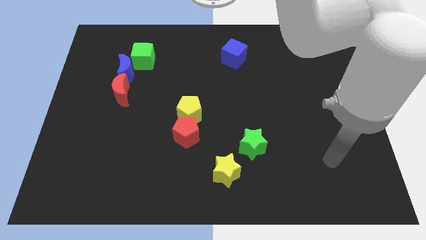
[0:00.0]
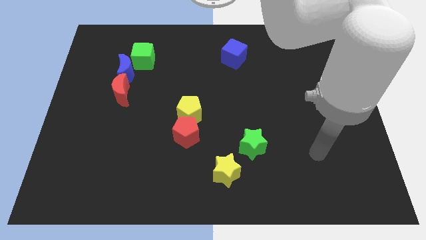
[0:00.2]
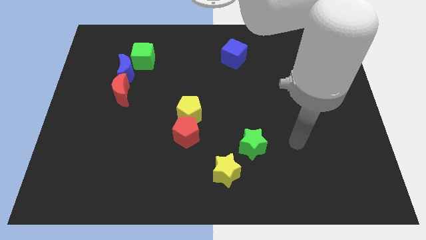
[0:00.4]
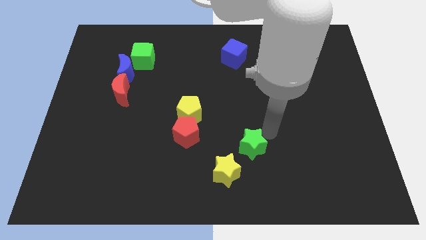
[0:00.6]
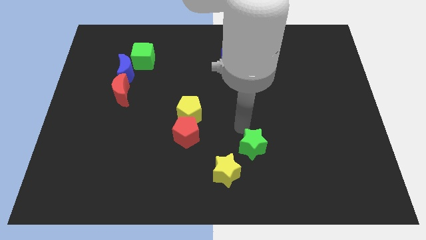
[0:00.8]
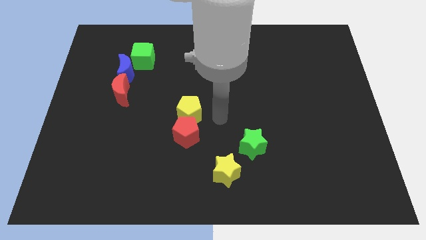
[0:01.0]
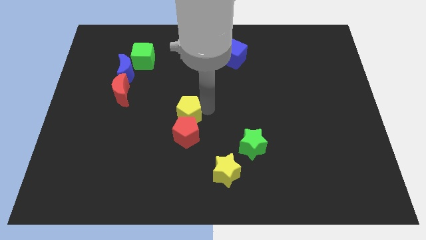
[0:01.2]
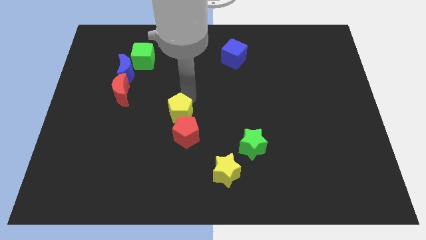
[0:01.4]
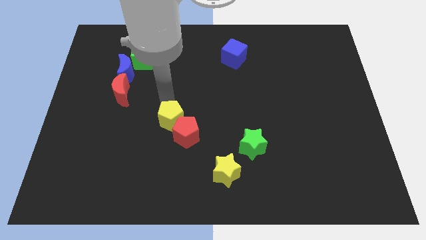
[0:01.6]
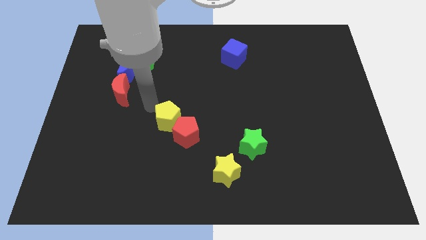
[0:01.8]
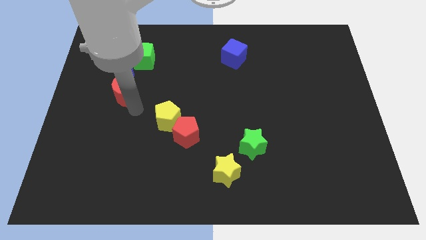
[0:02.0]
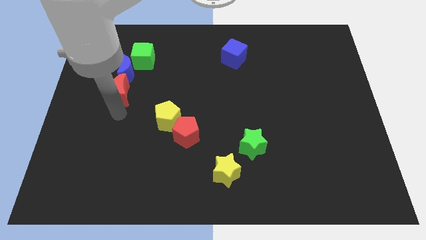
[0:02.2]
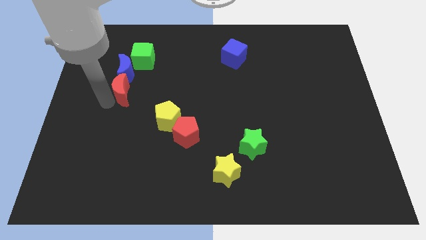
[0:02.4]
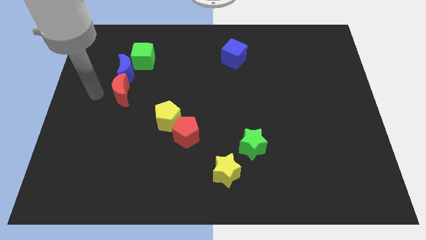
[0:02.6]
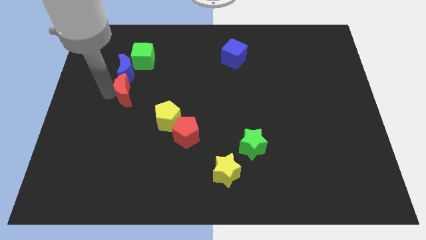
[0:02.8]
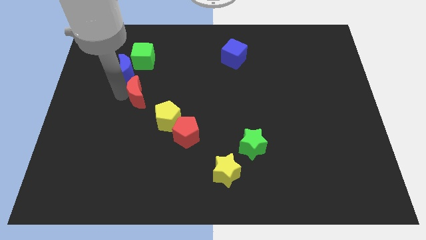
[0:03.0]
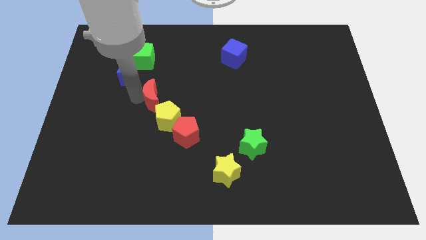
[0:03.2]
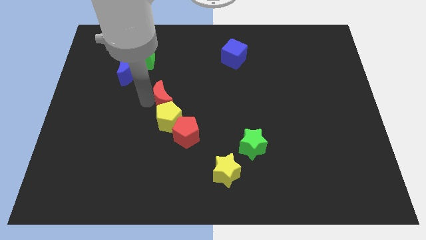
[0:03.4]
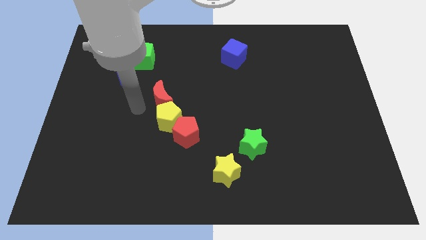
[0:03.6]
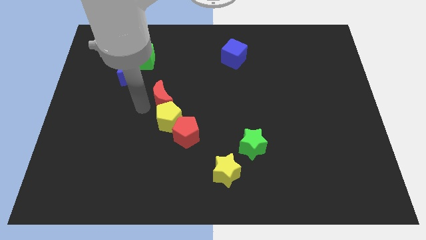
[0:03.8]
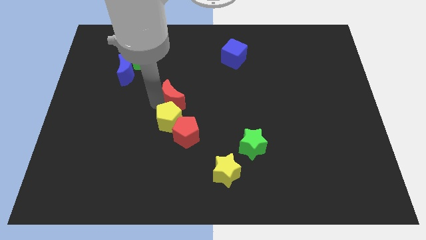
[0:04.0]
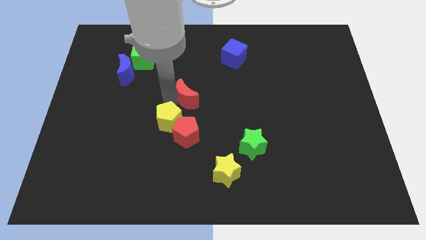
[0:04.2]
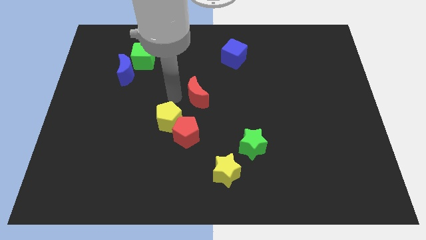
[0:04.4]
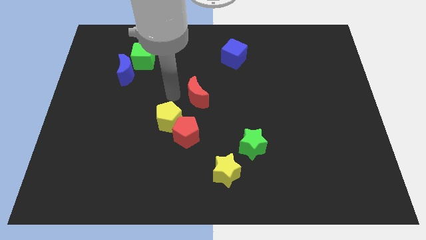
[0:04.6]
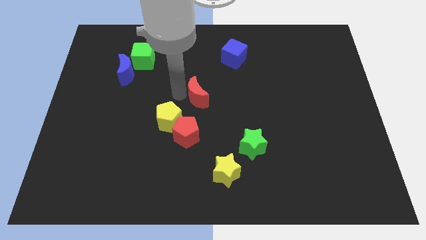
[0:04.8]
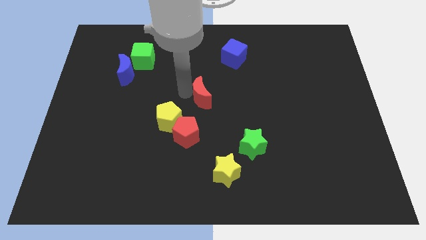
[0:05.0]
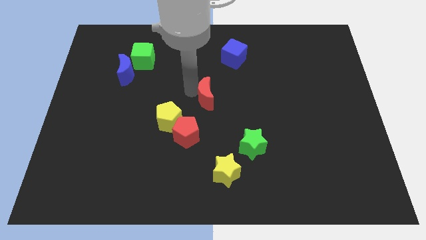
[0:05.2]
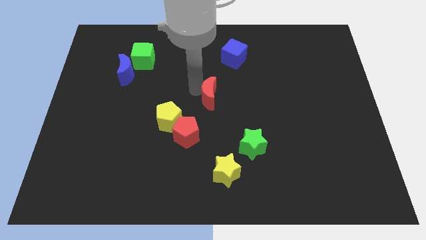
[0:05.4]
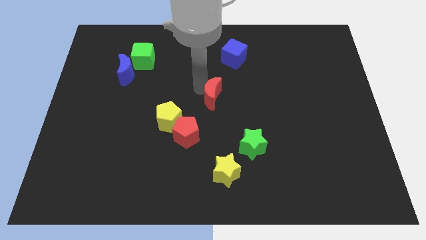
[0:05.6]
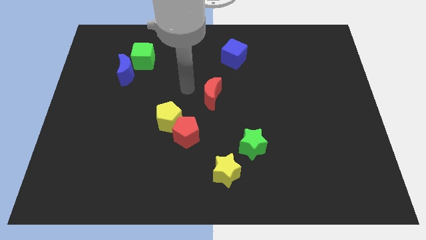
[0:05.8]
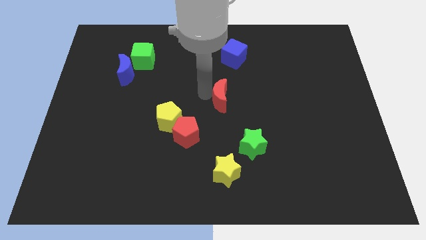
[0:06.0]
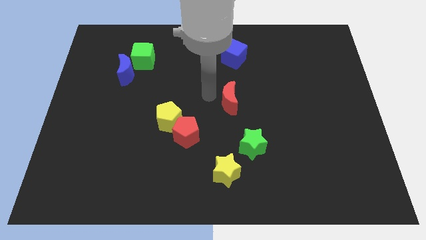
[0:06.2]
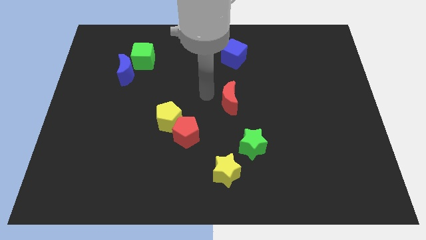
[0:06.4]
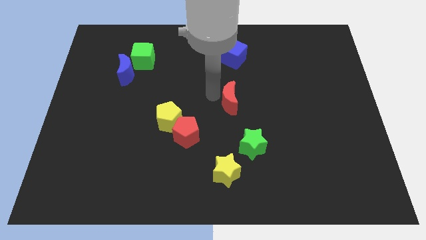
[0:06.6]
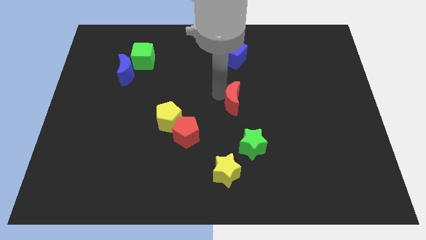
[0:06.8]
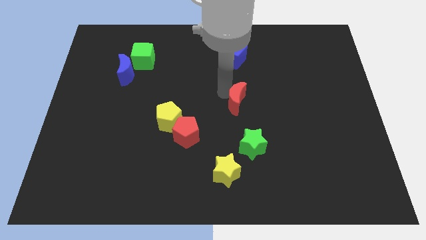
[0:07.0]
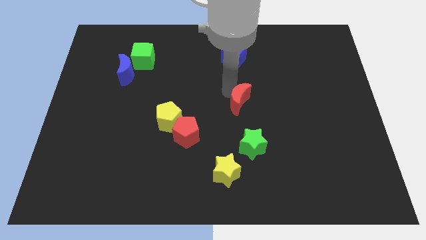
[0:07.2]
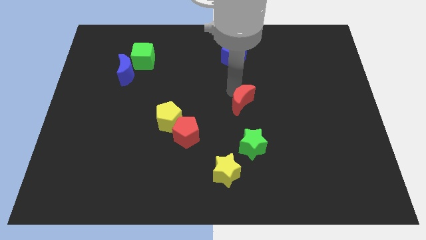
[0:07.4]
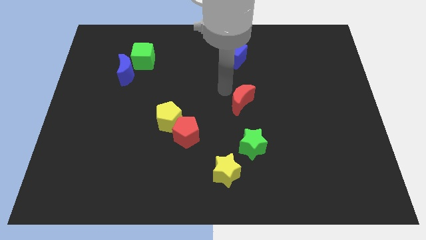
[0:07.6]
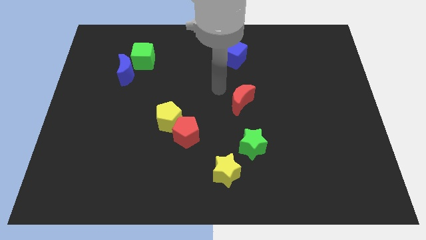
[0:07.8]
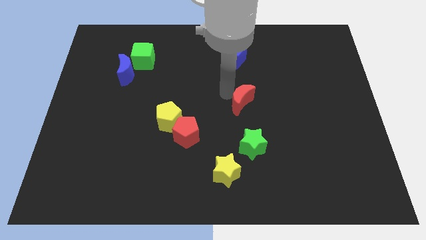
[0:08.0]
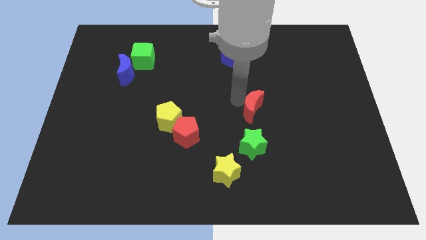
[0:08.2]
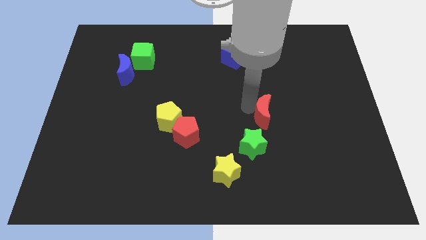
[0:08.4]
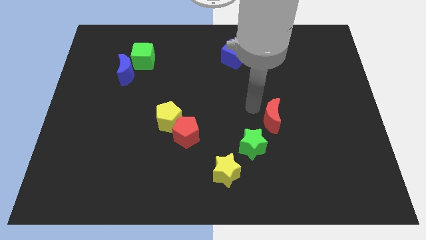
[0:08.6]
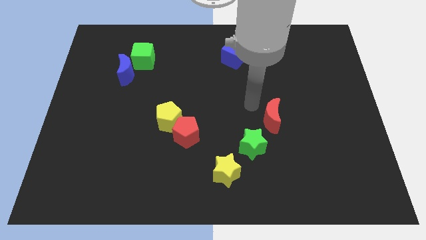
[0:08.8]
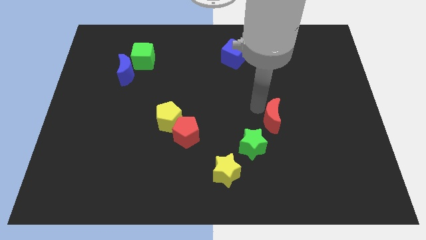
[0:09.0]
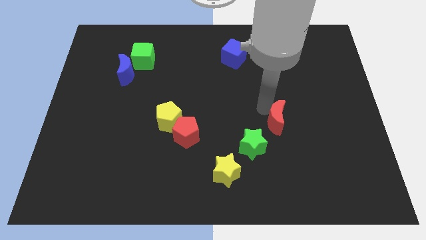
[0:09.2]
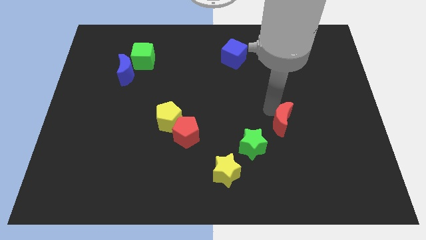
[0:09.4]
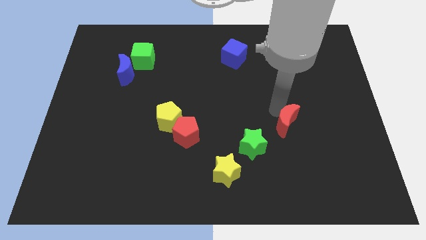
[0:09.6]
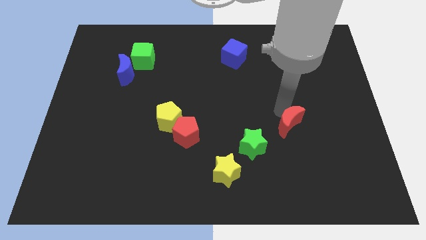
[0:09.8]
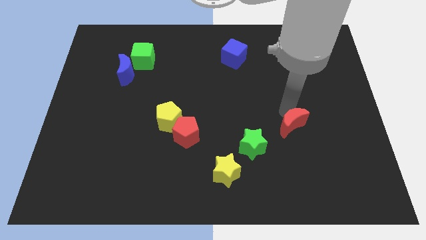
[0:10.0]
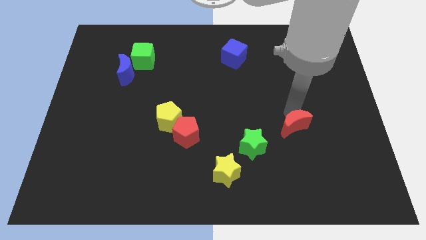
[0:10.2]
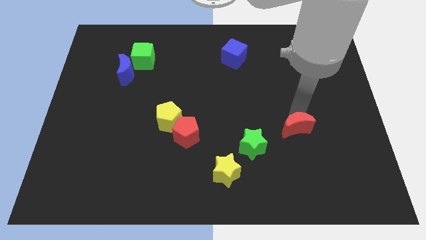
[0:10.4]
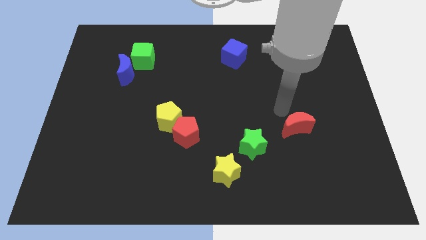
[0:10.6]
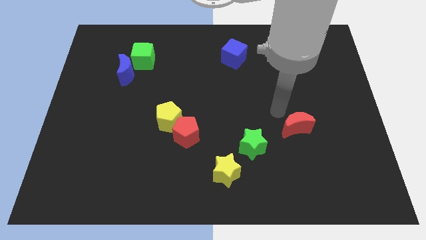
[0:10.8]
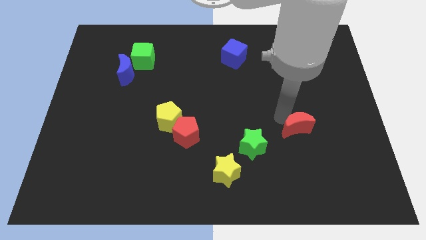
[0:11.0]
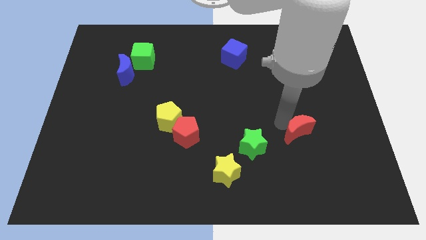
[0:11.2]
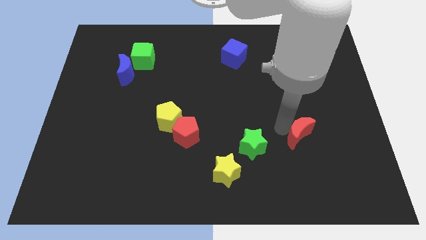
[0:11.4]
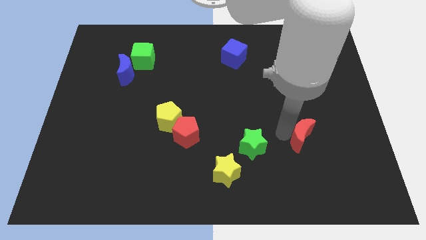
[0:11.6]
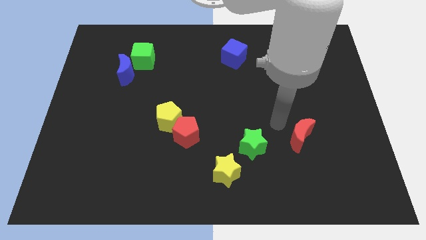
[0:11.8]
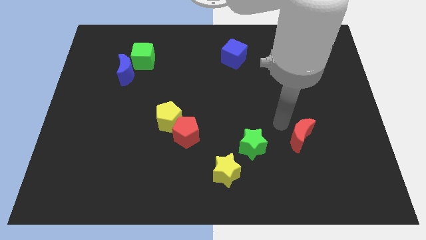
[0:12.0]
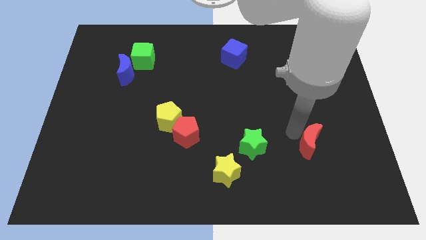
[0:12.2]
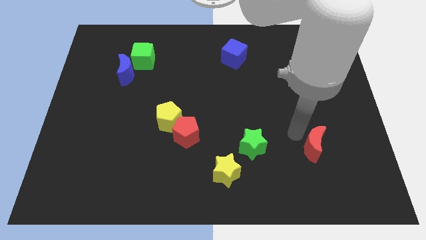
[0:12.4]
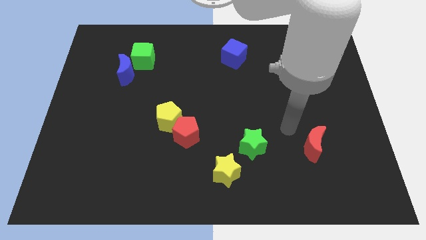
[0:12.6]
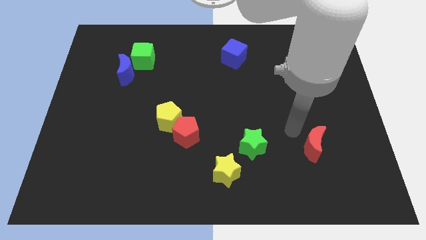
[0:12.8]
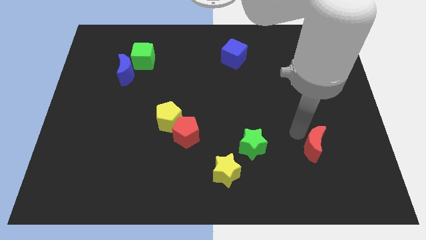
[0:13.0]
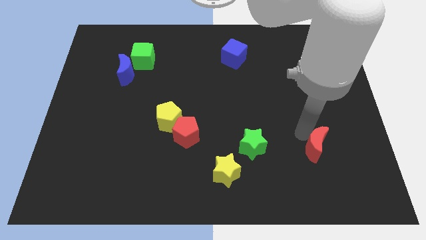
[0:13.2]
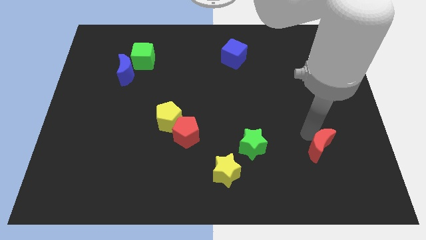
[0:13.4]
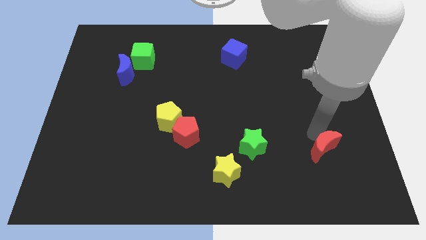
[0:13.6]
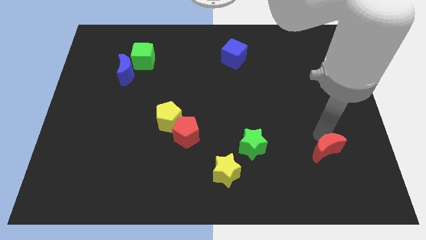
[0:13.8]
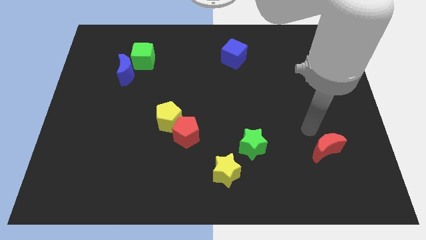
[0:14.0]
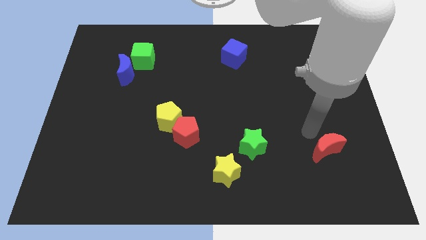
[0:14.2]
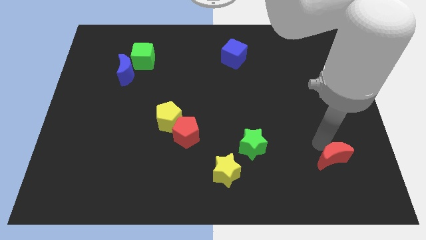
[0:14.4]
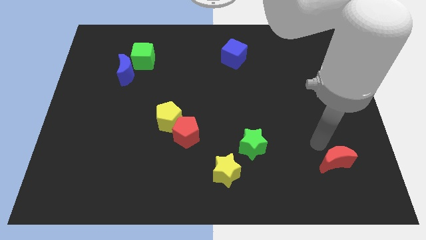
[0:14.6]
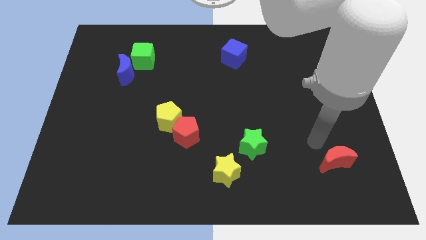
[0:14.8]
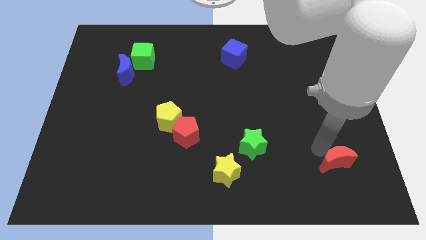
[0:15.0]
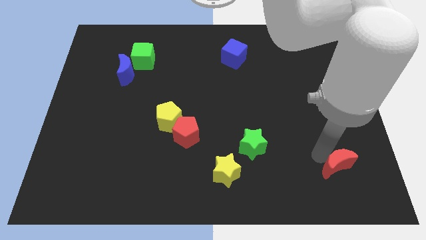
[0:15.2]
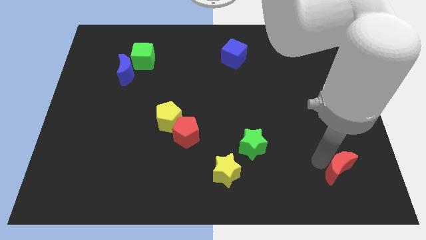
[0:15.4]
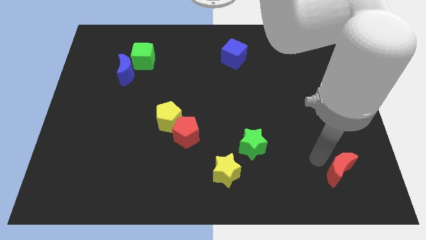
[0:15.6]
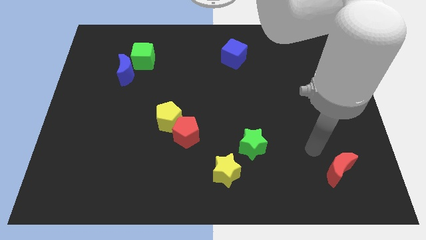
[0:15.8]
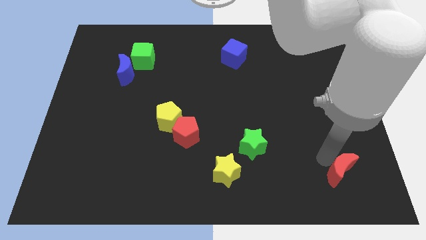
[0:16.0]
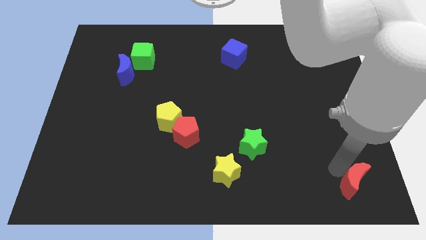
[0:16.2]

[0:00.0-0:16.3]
push the red moon to the bottom right of the board
